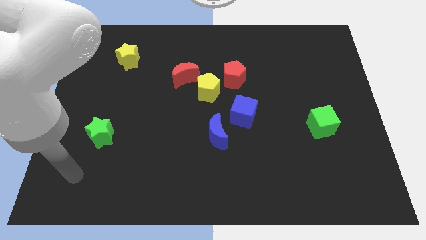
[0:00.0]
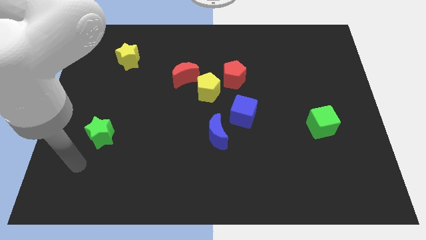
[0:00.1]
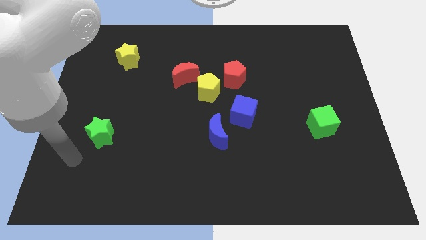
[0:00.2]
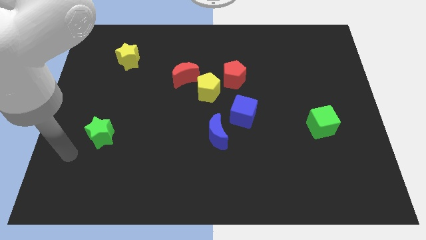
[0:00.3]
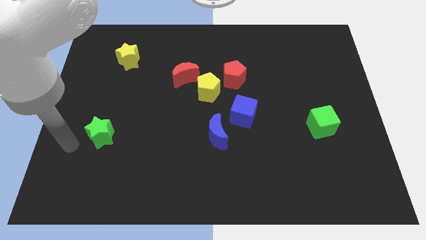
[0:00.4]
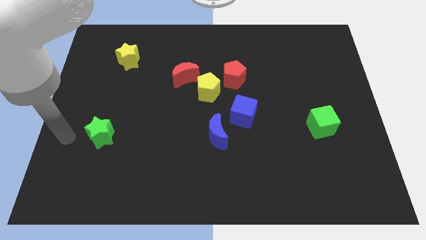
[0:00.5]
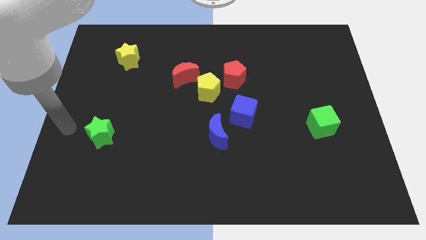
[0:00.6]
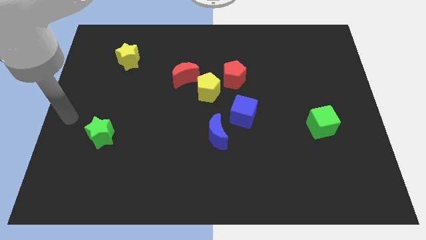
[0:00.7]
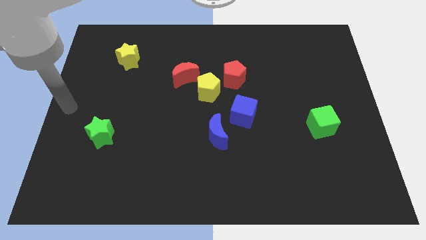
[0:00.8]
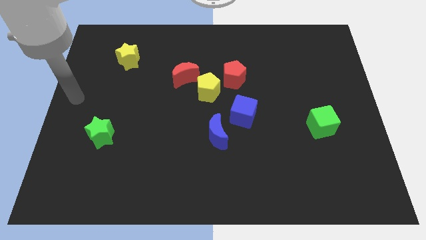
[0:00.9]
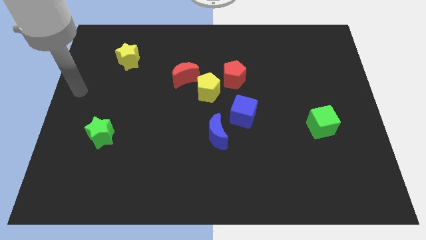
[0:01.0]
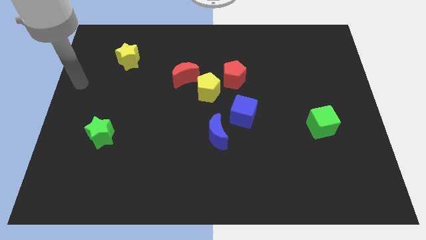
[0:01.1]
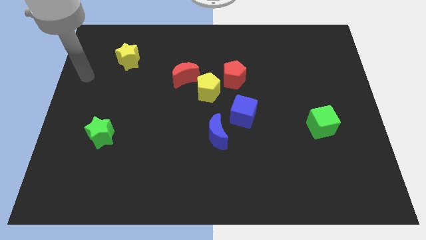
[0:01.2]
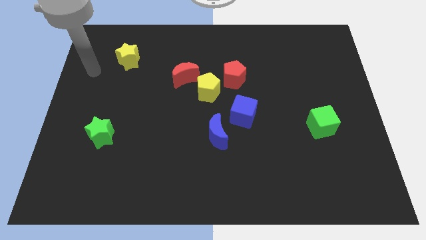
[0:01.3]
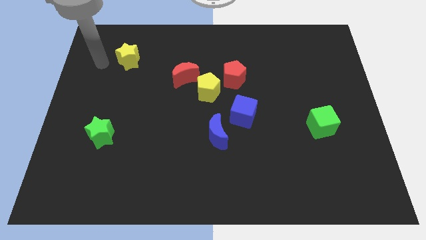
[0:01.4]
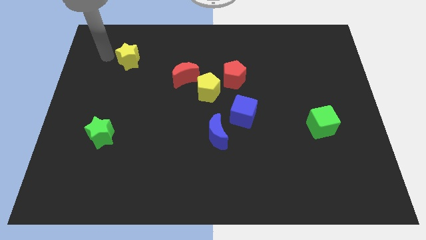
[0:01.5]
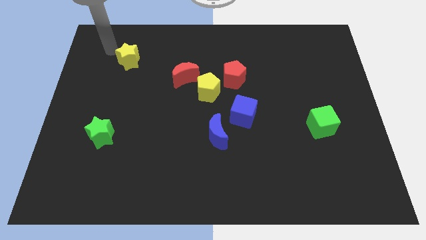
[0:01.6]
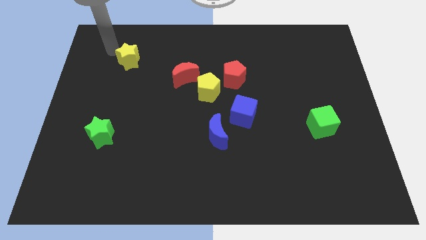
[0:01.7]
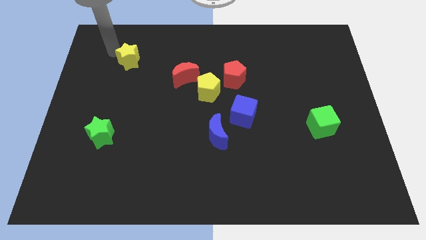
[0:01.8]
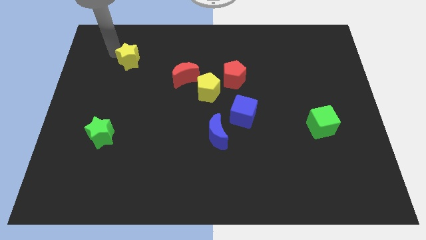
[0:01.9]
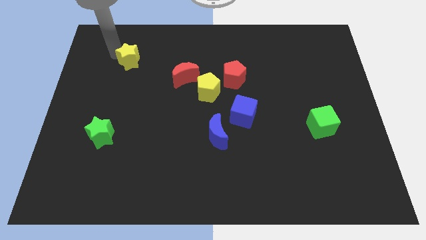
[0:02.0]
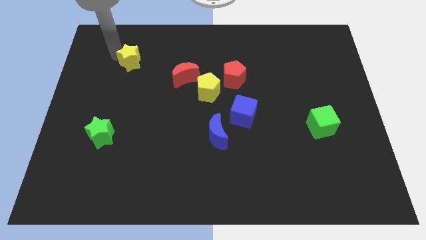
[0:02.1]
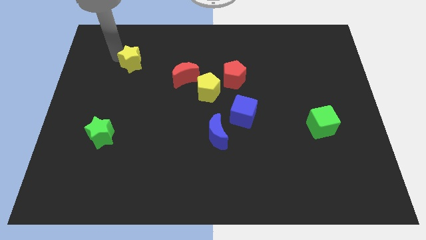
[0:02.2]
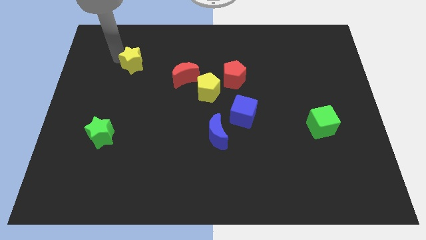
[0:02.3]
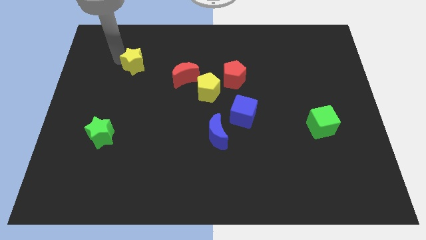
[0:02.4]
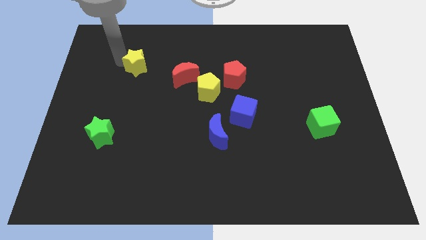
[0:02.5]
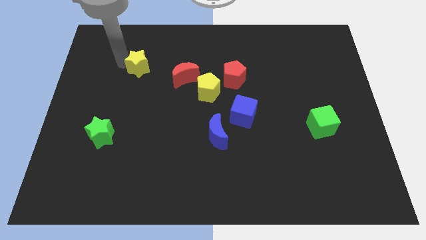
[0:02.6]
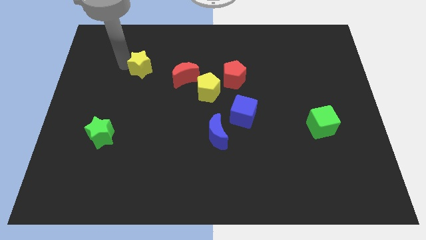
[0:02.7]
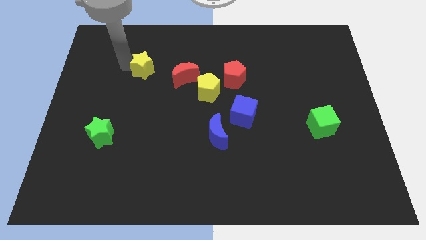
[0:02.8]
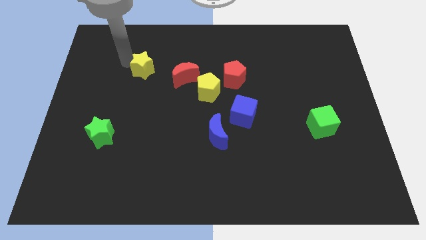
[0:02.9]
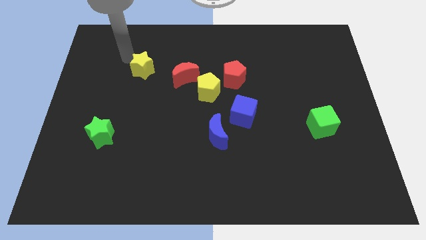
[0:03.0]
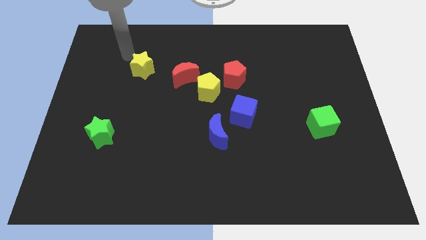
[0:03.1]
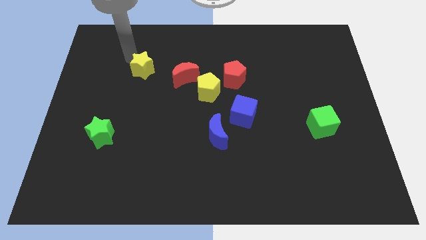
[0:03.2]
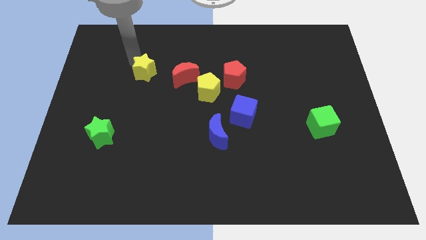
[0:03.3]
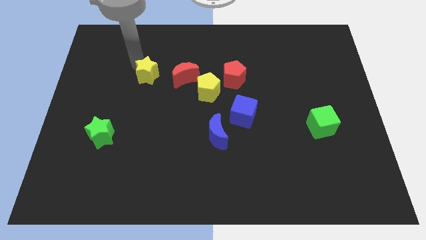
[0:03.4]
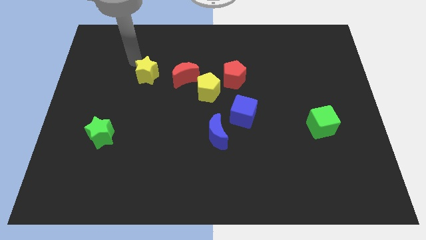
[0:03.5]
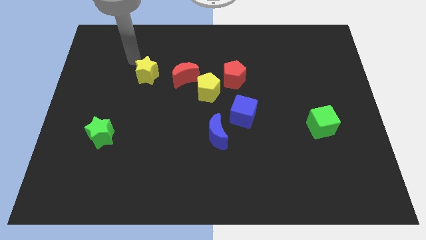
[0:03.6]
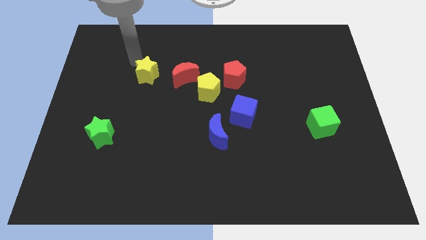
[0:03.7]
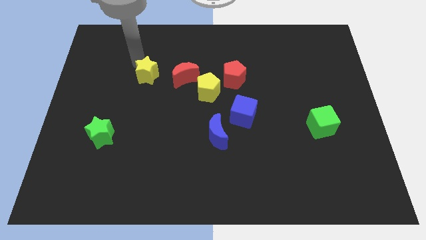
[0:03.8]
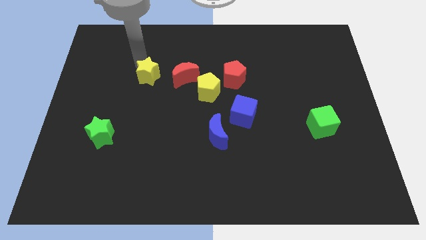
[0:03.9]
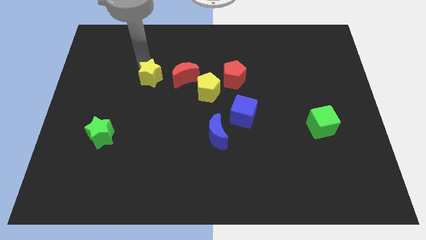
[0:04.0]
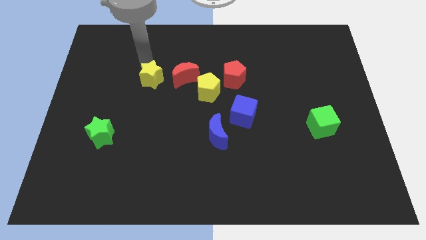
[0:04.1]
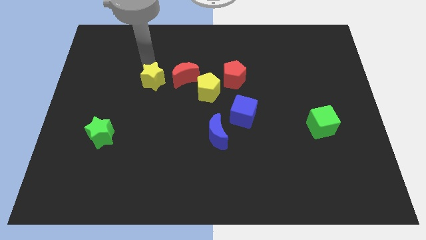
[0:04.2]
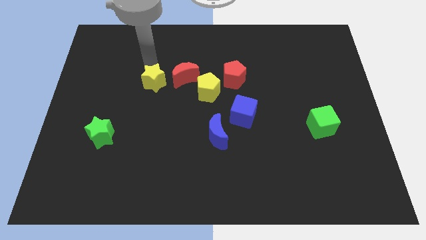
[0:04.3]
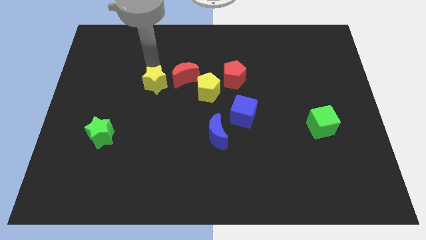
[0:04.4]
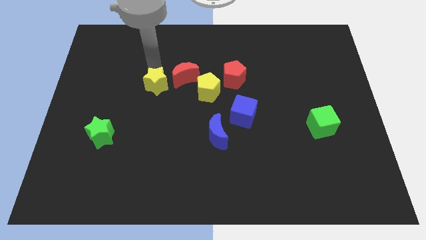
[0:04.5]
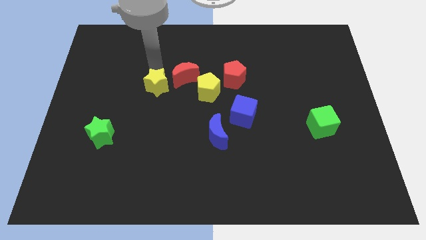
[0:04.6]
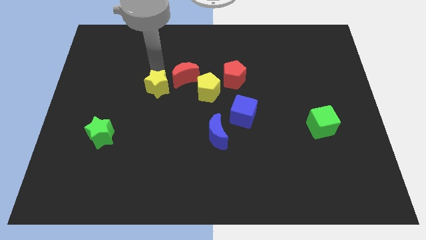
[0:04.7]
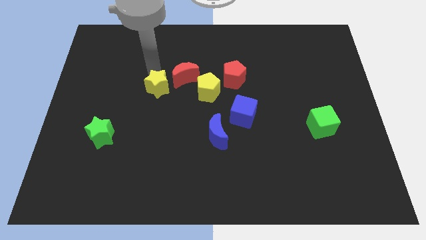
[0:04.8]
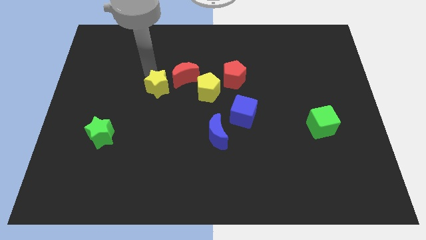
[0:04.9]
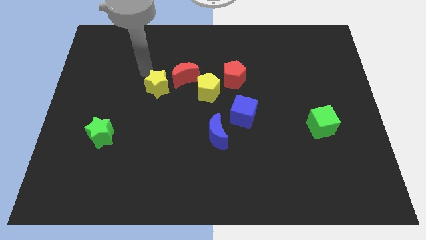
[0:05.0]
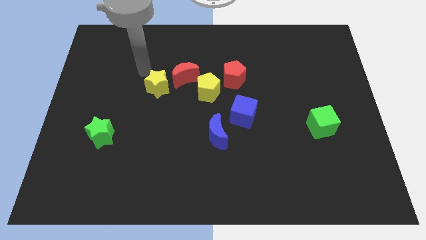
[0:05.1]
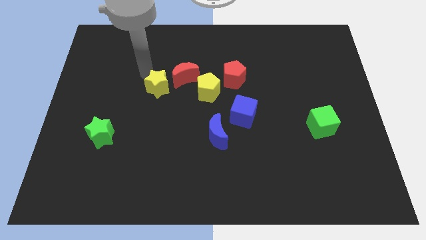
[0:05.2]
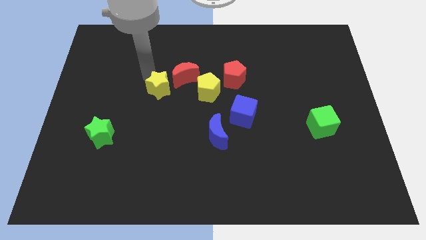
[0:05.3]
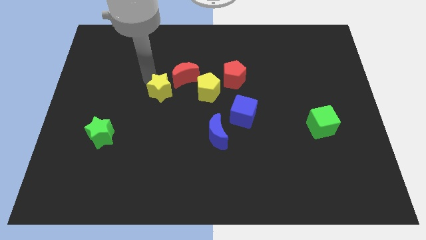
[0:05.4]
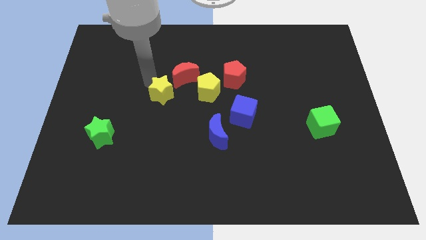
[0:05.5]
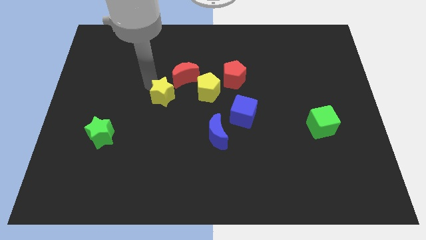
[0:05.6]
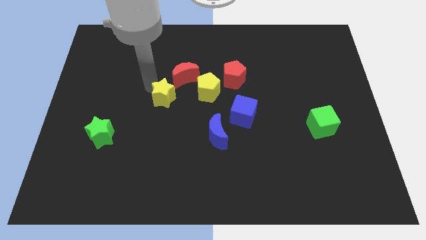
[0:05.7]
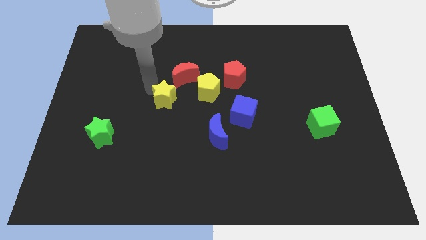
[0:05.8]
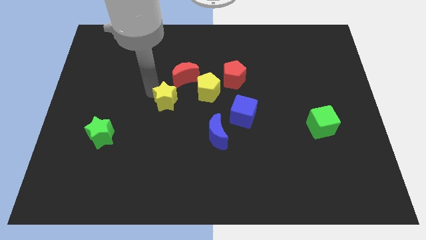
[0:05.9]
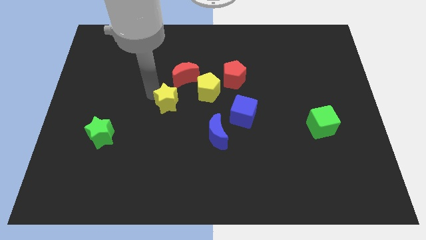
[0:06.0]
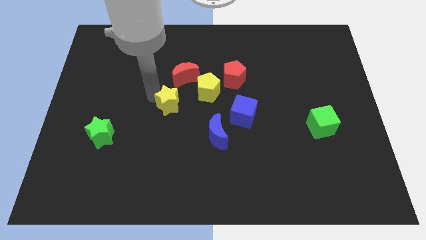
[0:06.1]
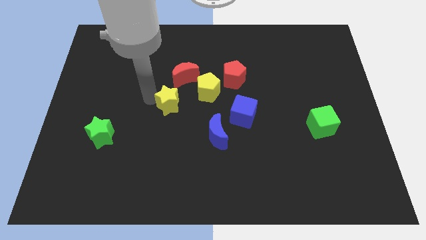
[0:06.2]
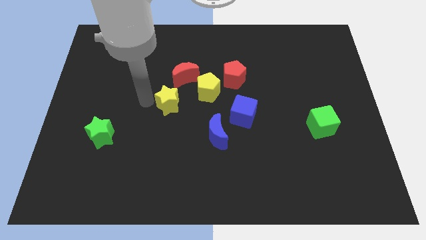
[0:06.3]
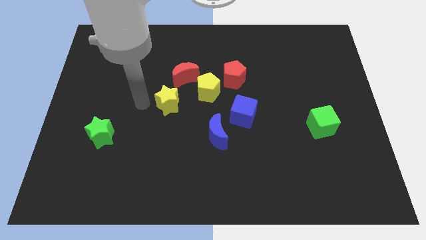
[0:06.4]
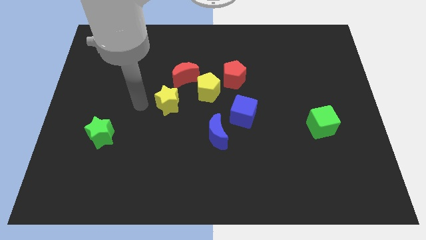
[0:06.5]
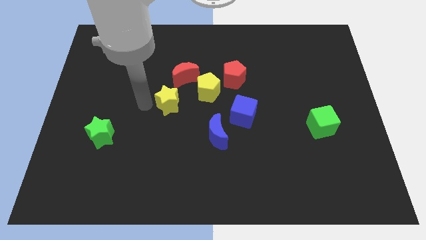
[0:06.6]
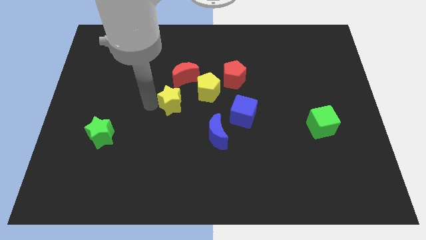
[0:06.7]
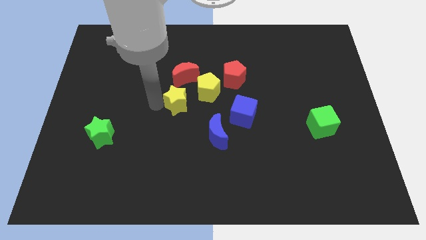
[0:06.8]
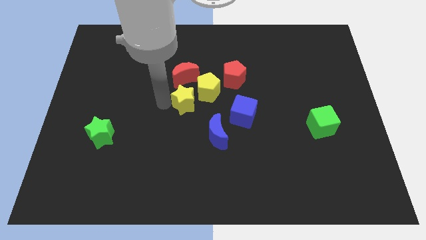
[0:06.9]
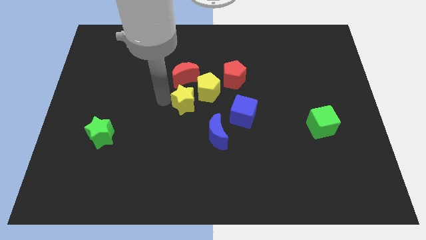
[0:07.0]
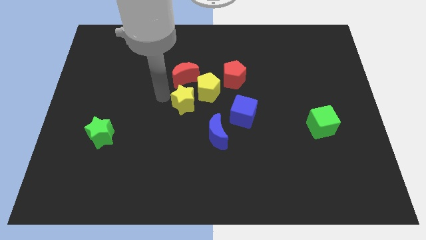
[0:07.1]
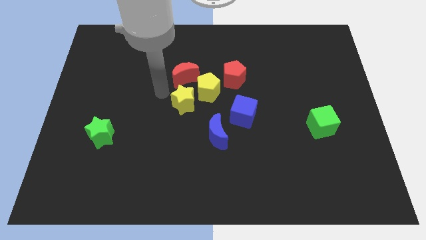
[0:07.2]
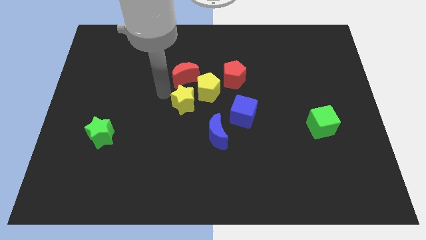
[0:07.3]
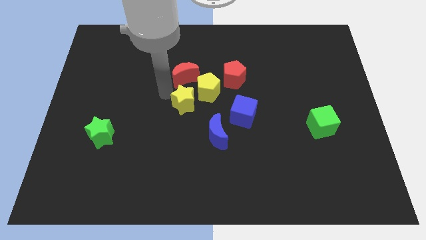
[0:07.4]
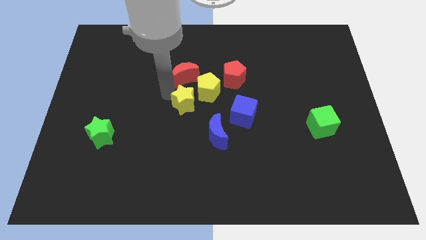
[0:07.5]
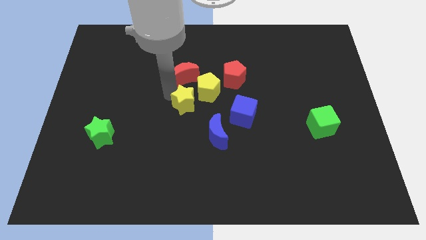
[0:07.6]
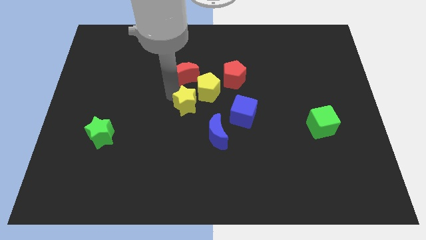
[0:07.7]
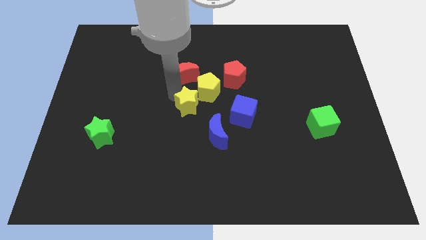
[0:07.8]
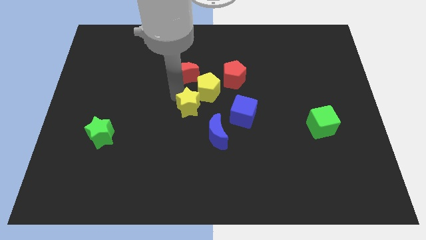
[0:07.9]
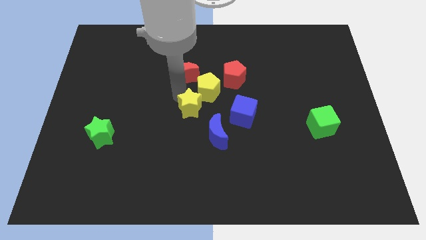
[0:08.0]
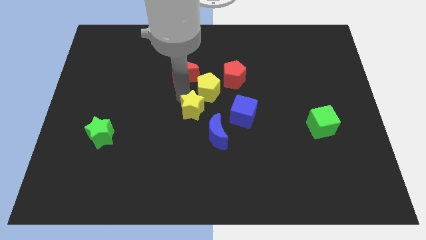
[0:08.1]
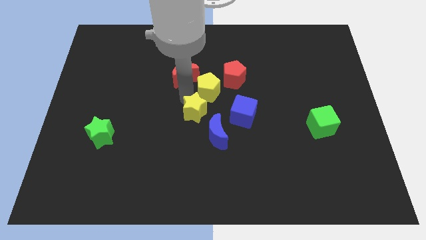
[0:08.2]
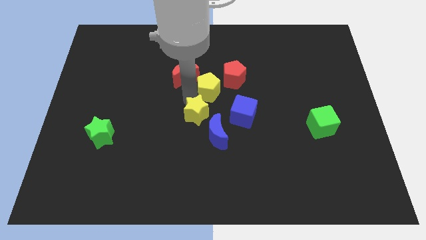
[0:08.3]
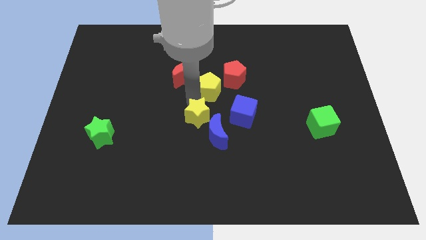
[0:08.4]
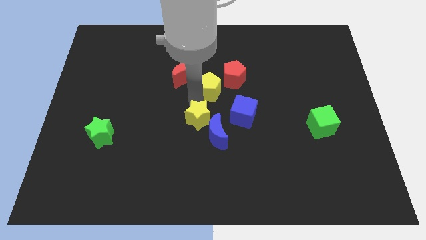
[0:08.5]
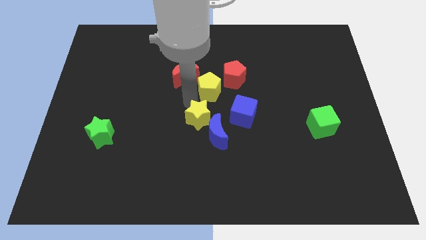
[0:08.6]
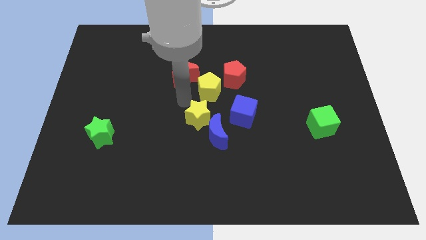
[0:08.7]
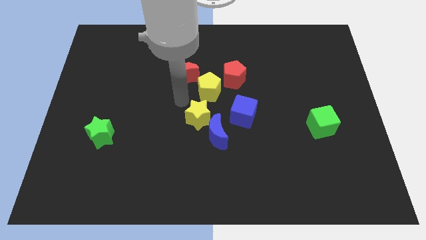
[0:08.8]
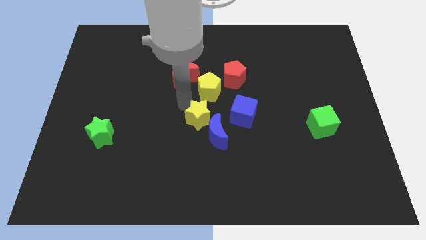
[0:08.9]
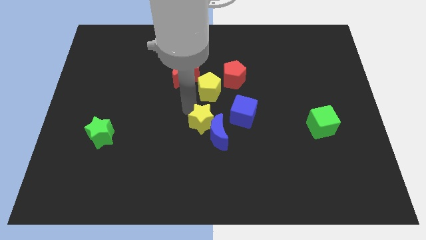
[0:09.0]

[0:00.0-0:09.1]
slide the yellow star close to the blue moon
